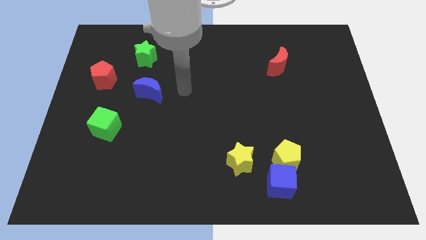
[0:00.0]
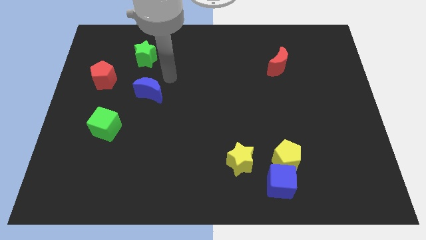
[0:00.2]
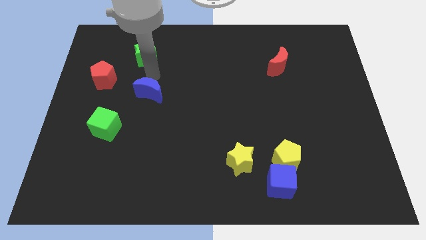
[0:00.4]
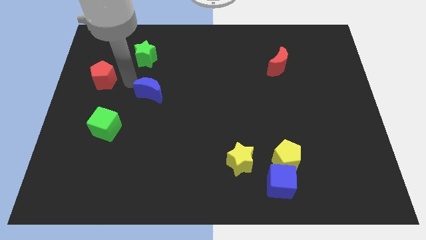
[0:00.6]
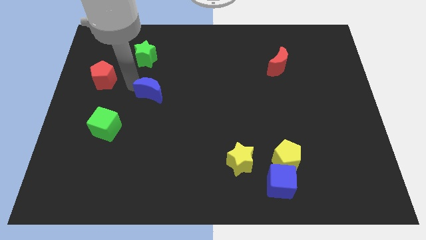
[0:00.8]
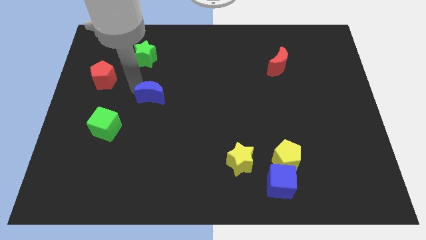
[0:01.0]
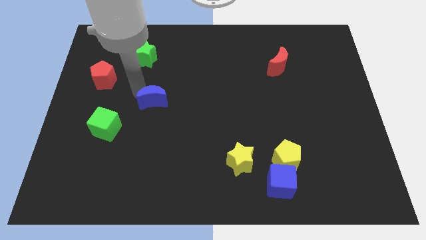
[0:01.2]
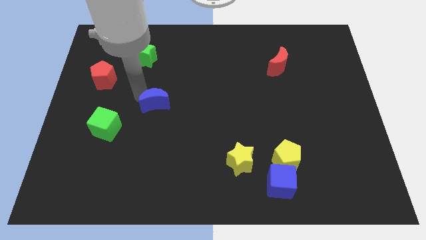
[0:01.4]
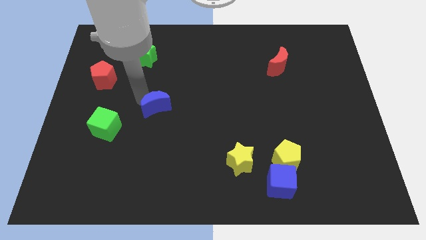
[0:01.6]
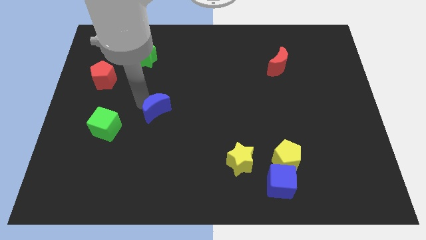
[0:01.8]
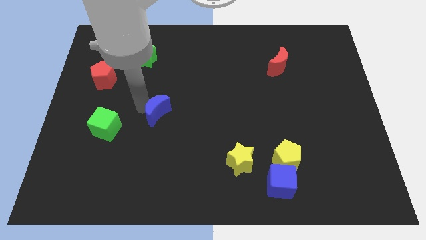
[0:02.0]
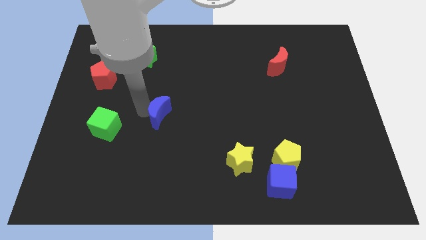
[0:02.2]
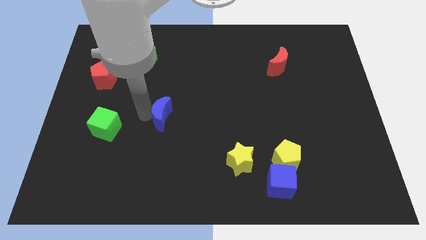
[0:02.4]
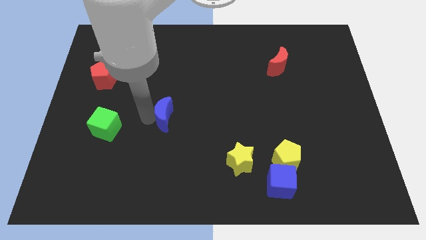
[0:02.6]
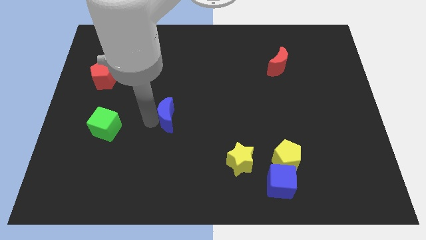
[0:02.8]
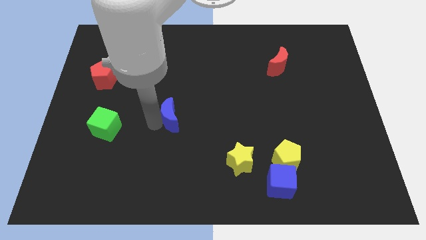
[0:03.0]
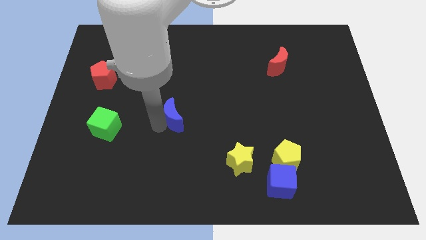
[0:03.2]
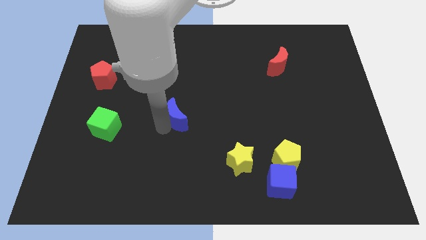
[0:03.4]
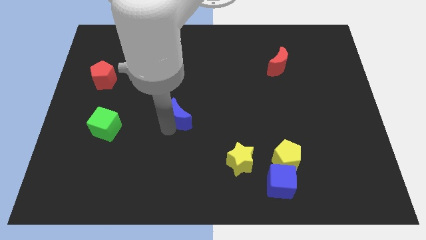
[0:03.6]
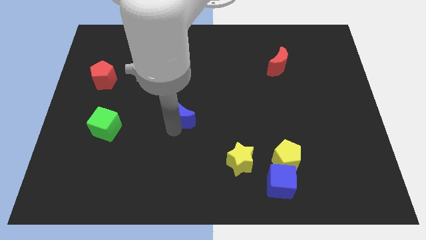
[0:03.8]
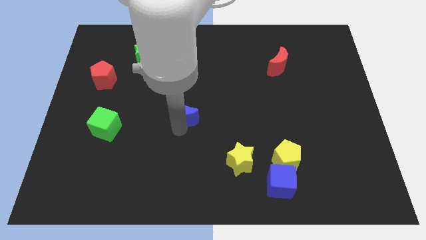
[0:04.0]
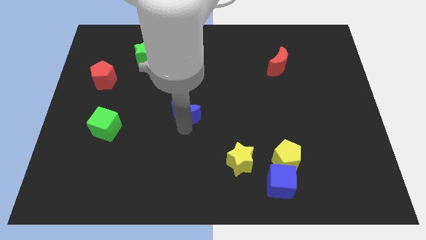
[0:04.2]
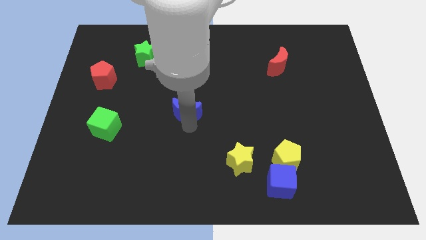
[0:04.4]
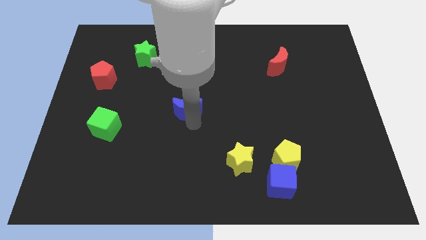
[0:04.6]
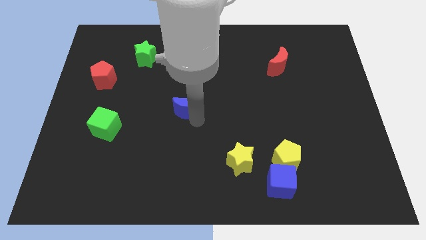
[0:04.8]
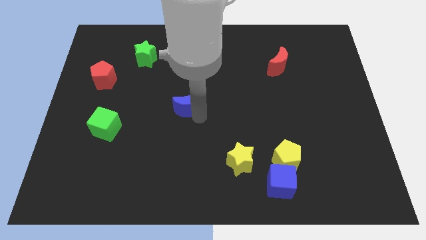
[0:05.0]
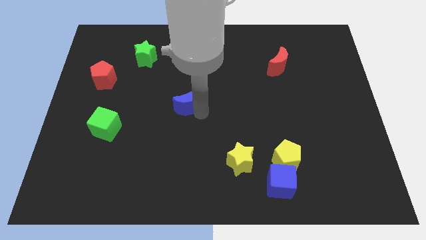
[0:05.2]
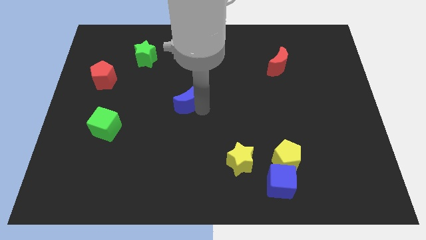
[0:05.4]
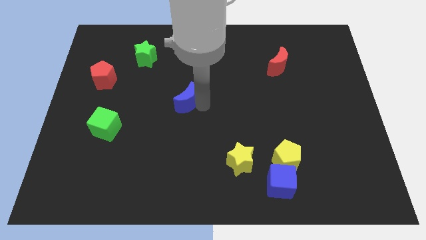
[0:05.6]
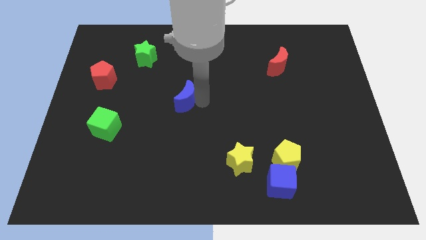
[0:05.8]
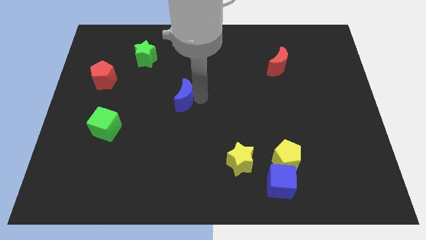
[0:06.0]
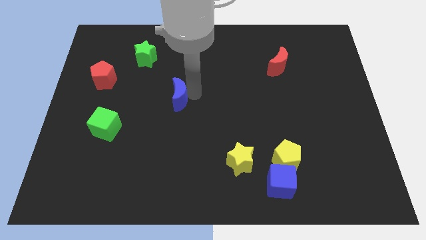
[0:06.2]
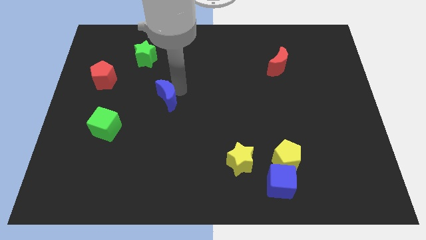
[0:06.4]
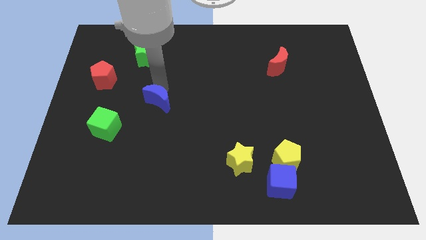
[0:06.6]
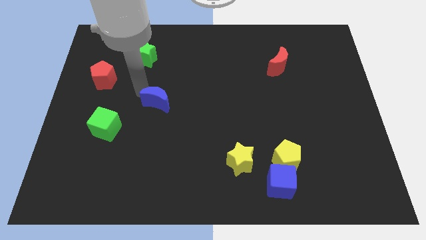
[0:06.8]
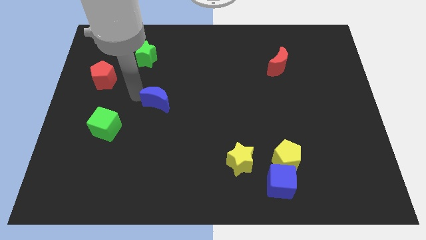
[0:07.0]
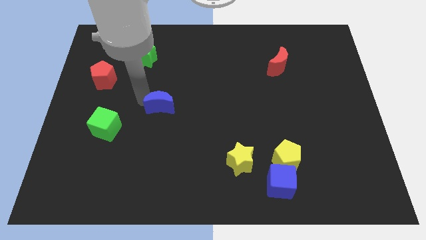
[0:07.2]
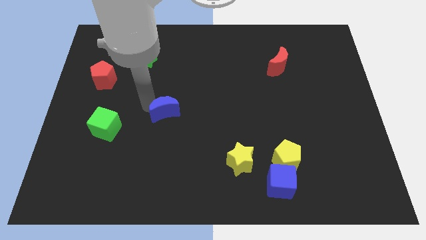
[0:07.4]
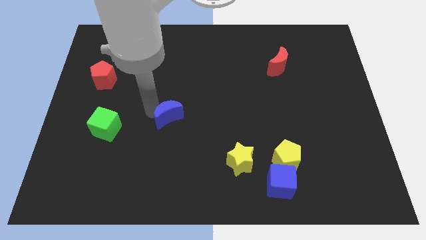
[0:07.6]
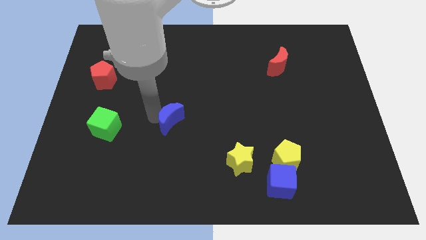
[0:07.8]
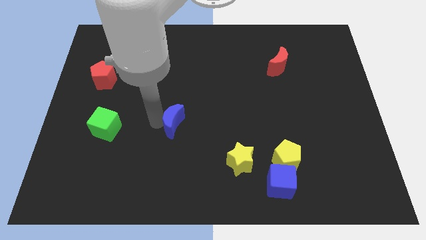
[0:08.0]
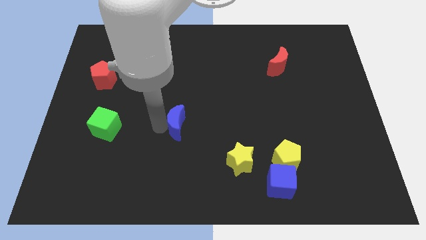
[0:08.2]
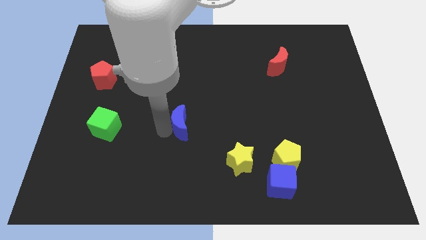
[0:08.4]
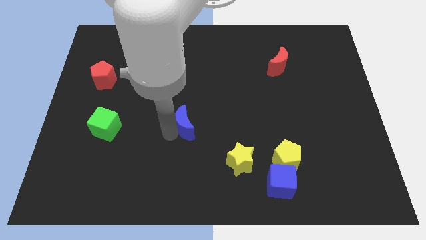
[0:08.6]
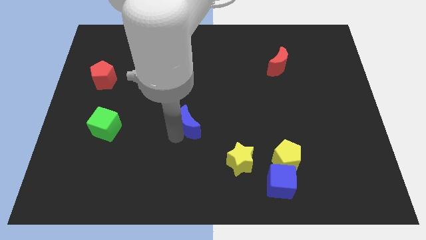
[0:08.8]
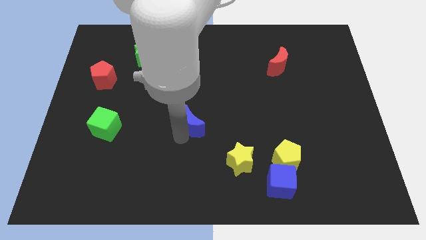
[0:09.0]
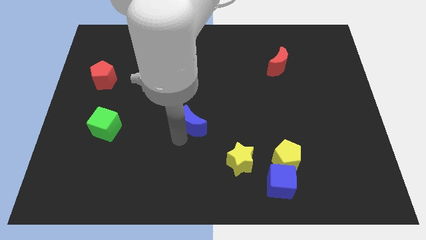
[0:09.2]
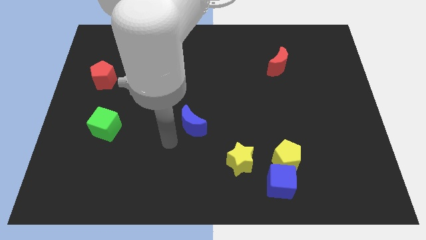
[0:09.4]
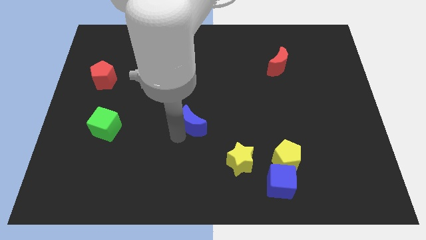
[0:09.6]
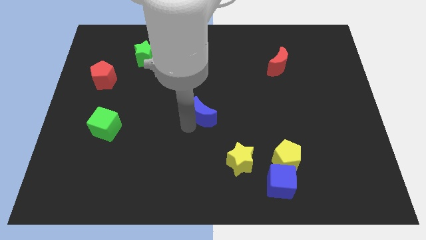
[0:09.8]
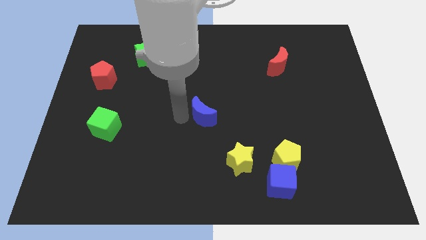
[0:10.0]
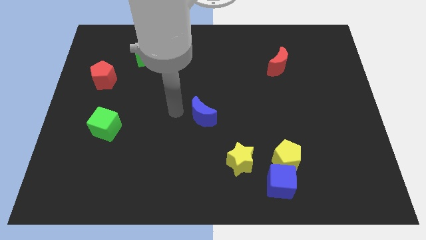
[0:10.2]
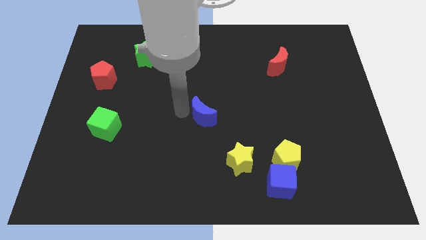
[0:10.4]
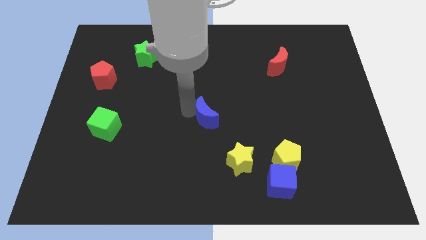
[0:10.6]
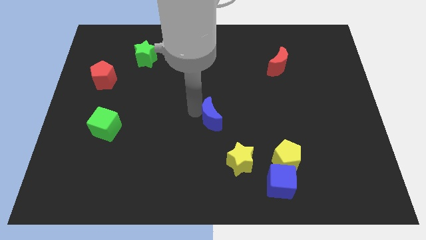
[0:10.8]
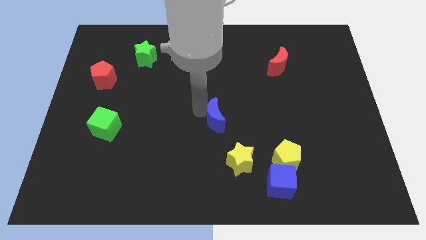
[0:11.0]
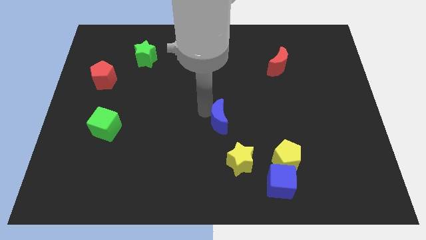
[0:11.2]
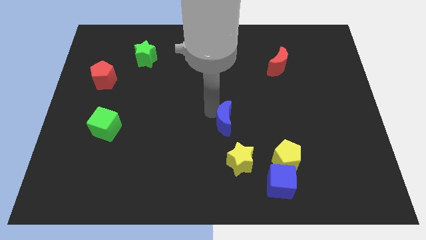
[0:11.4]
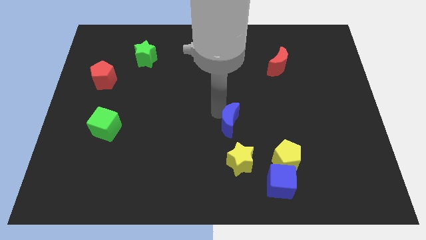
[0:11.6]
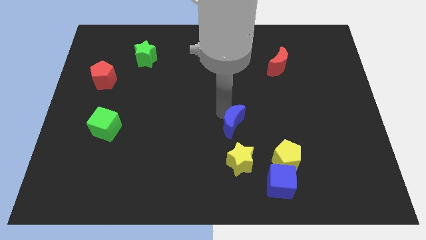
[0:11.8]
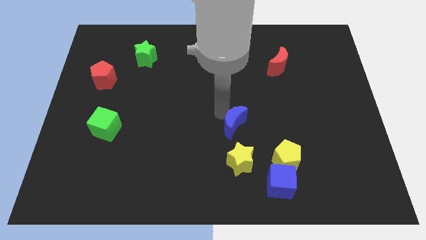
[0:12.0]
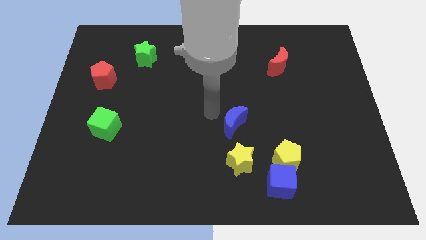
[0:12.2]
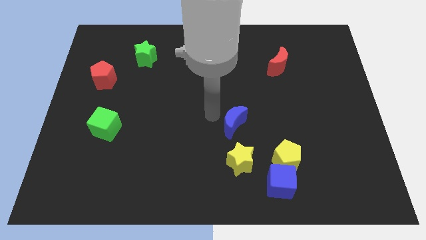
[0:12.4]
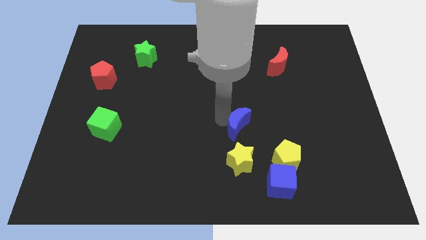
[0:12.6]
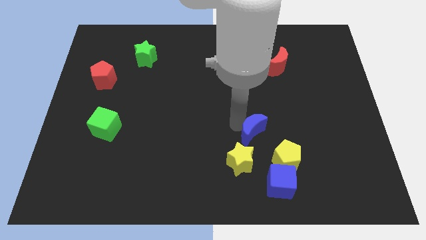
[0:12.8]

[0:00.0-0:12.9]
slide the blue moon to the top right of the yellow star

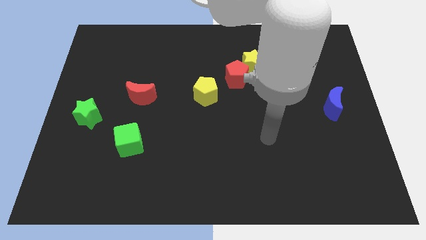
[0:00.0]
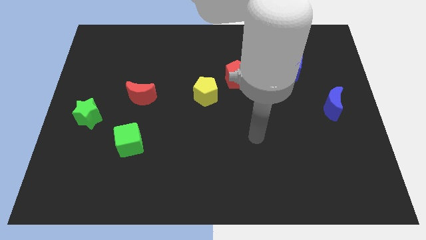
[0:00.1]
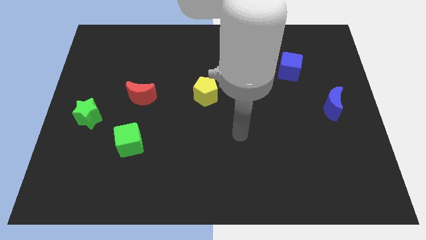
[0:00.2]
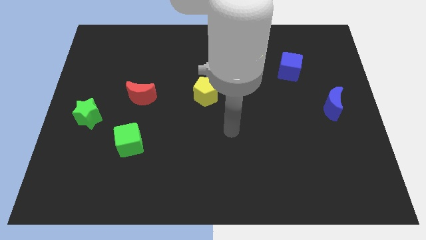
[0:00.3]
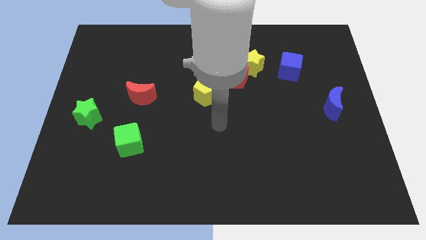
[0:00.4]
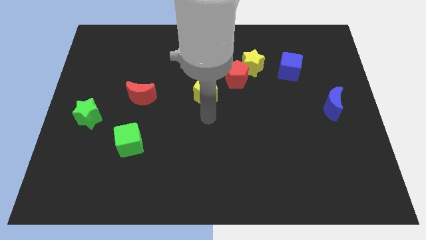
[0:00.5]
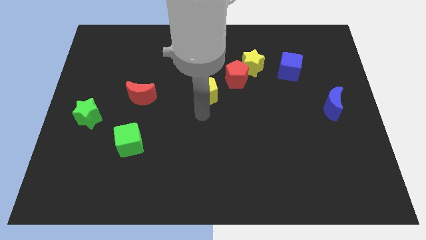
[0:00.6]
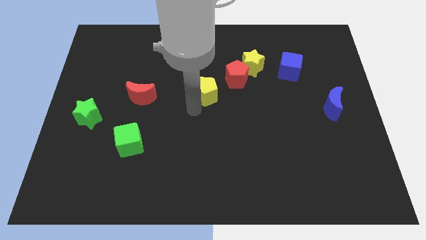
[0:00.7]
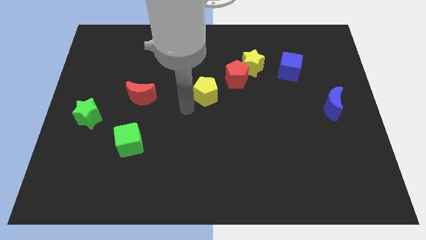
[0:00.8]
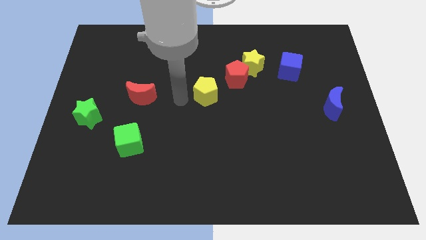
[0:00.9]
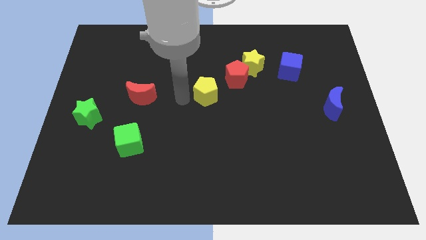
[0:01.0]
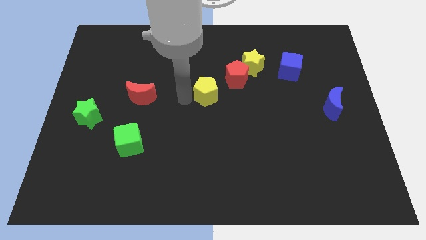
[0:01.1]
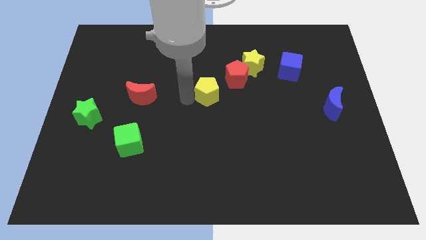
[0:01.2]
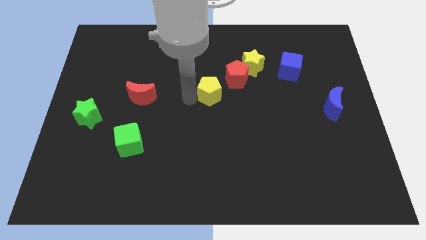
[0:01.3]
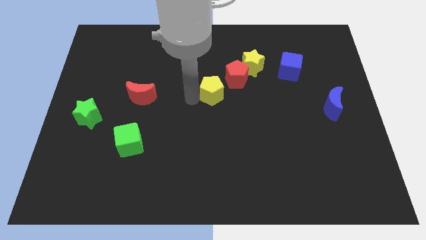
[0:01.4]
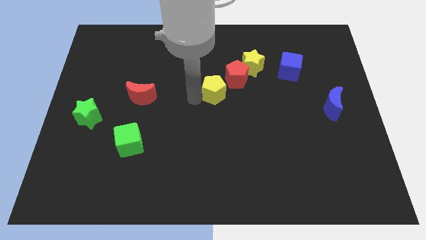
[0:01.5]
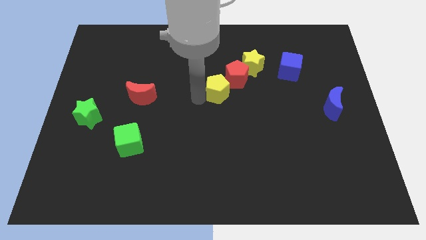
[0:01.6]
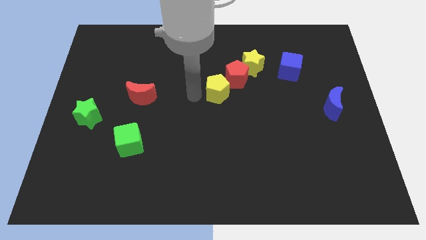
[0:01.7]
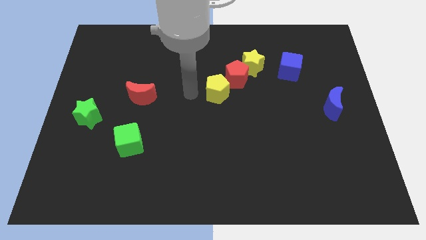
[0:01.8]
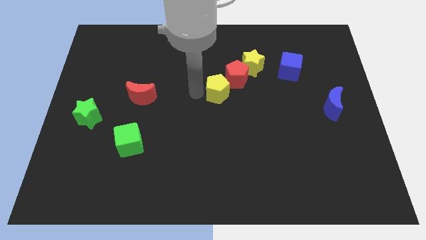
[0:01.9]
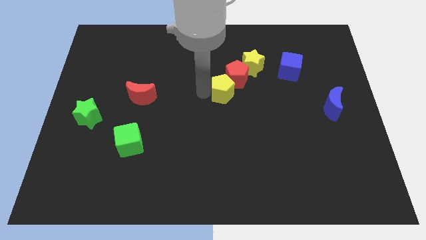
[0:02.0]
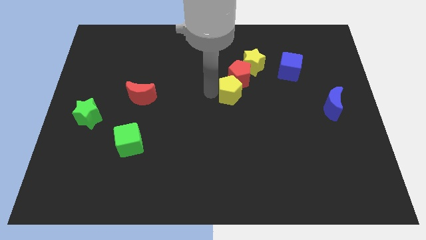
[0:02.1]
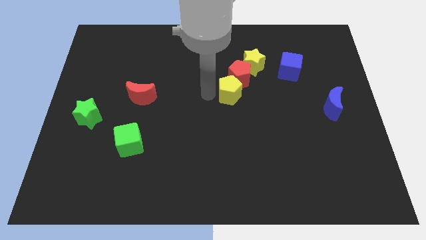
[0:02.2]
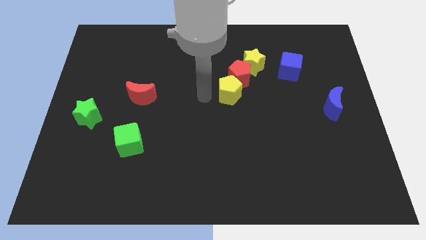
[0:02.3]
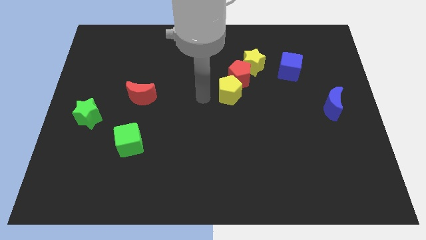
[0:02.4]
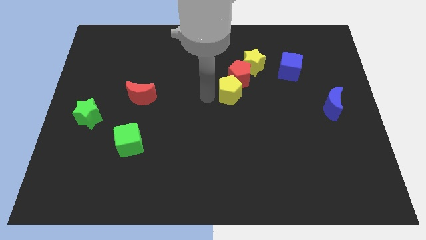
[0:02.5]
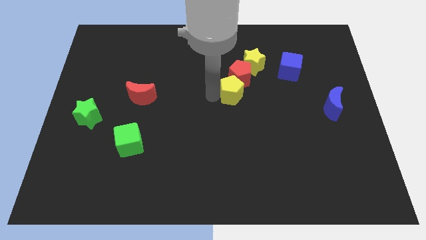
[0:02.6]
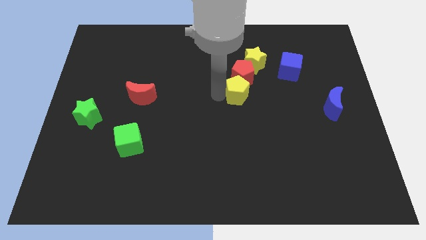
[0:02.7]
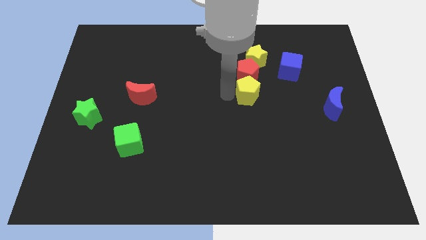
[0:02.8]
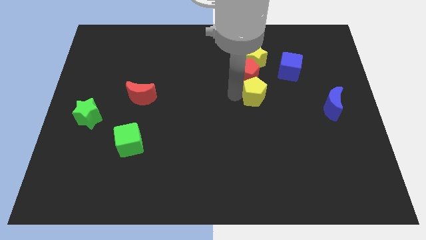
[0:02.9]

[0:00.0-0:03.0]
put the yellow pentagon diagonally down and to the left of the blue cube
